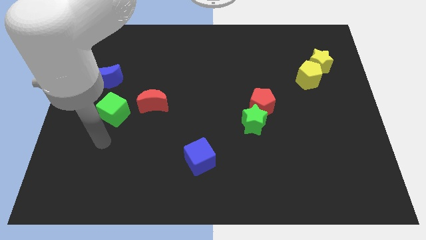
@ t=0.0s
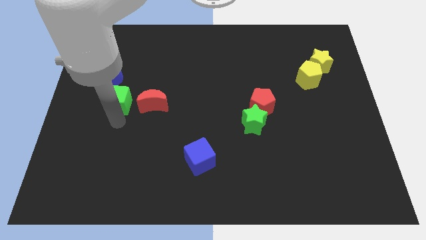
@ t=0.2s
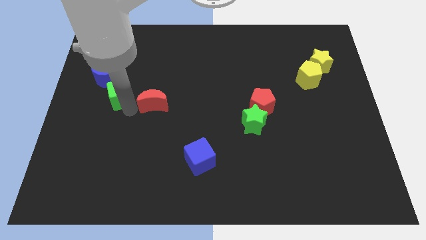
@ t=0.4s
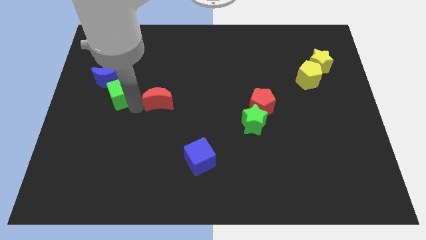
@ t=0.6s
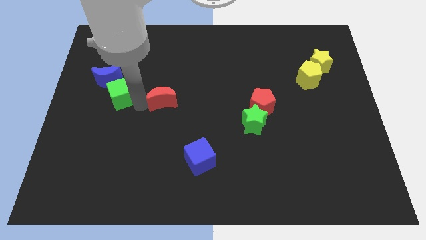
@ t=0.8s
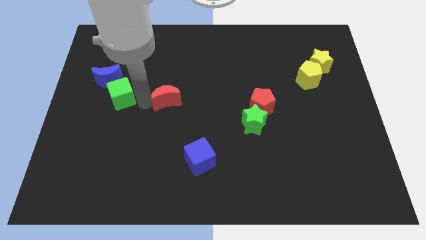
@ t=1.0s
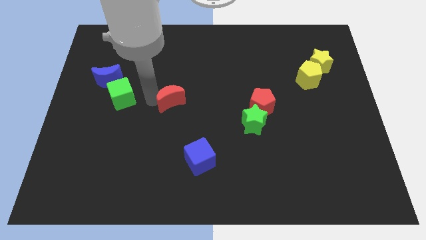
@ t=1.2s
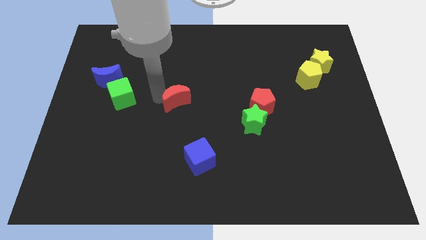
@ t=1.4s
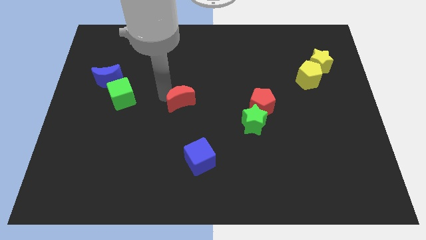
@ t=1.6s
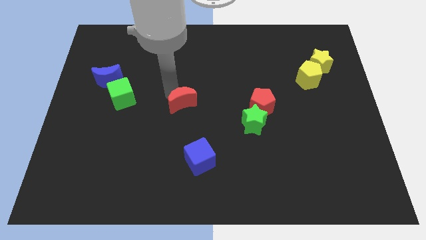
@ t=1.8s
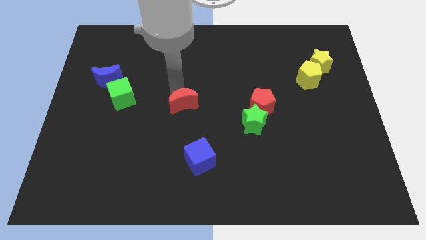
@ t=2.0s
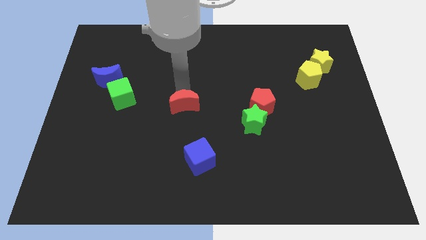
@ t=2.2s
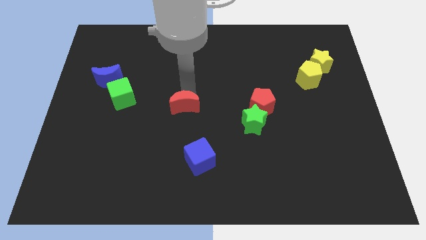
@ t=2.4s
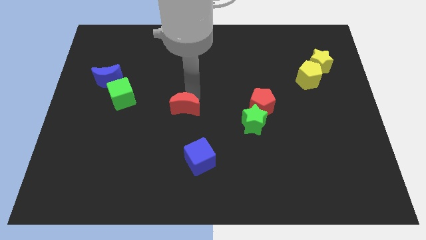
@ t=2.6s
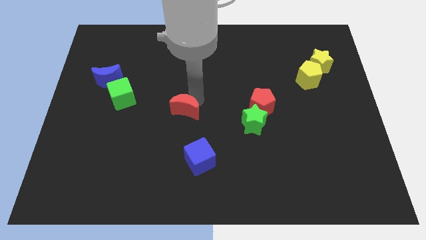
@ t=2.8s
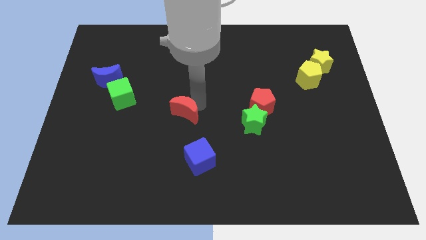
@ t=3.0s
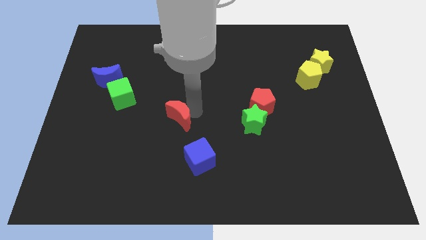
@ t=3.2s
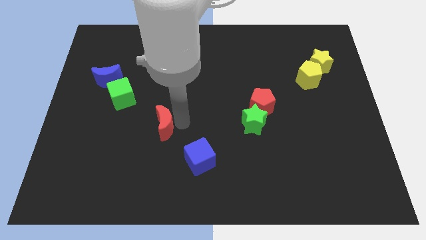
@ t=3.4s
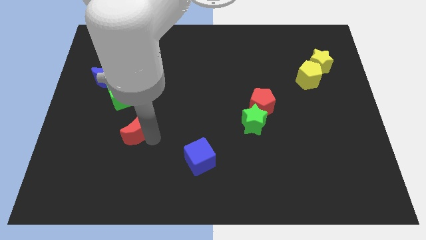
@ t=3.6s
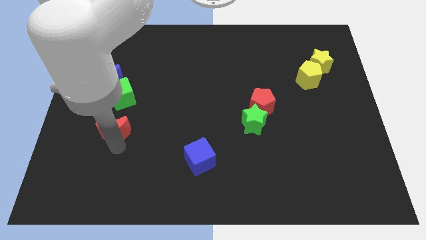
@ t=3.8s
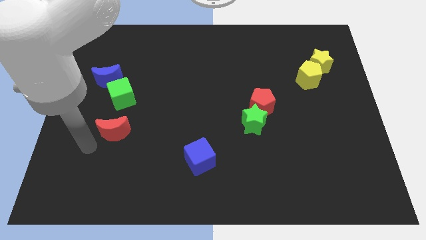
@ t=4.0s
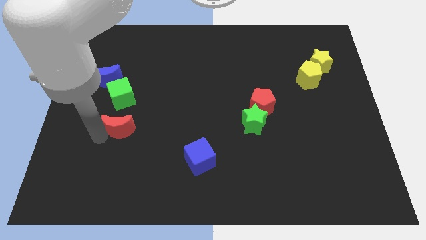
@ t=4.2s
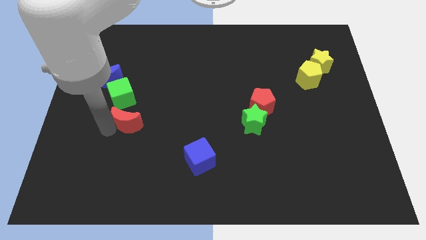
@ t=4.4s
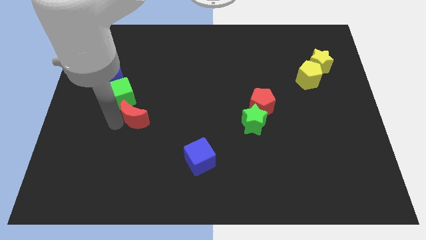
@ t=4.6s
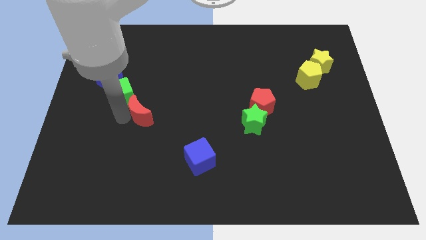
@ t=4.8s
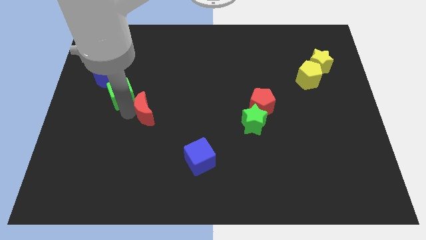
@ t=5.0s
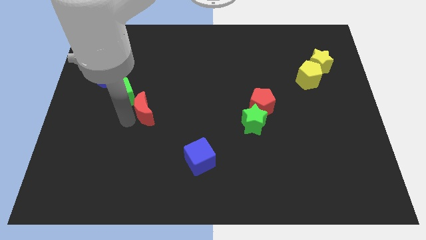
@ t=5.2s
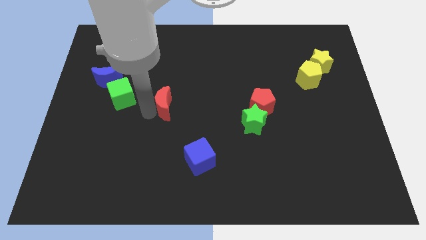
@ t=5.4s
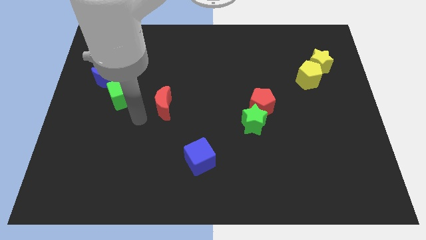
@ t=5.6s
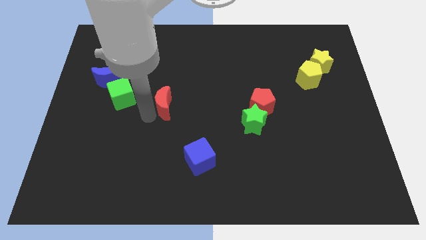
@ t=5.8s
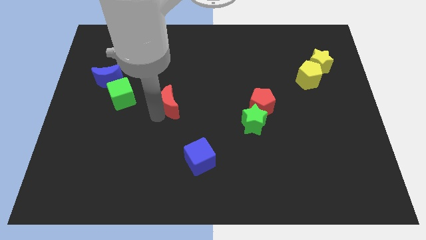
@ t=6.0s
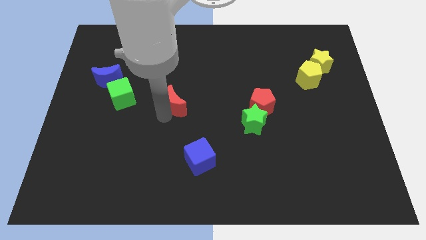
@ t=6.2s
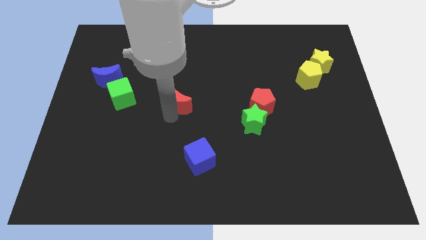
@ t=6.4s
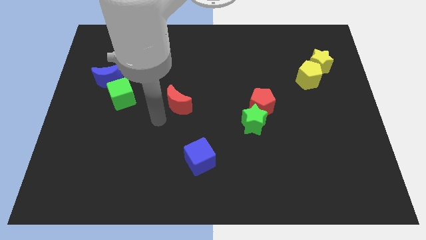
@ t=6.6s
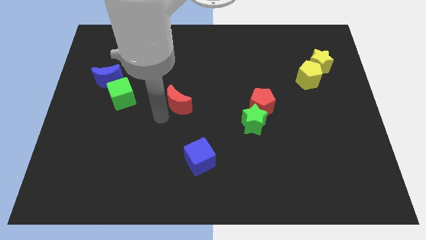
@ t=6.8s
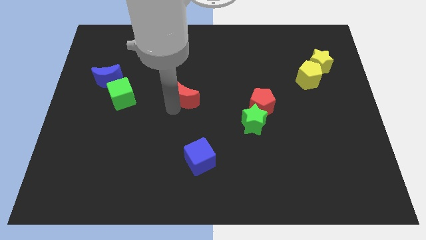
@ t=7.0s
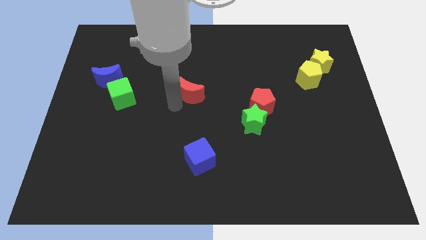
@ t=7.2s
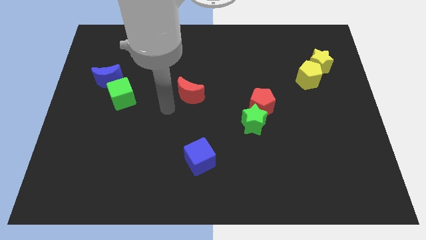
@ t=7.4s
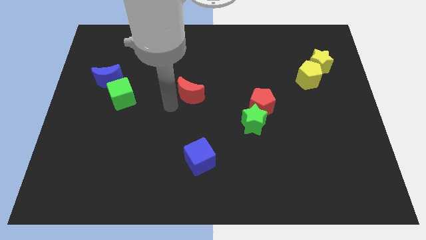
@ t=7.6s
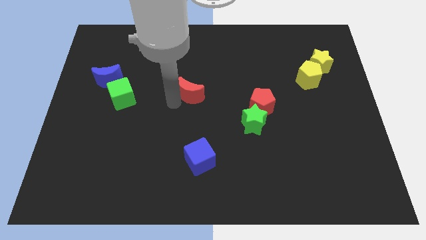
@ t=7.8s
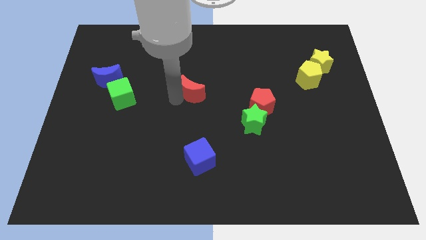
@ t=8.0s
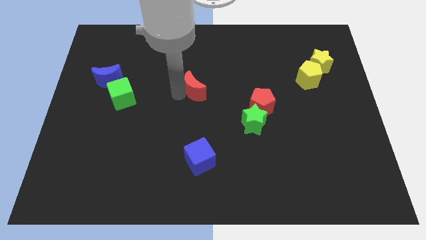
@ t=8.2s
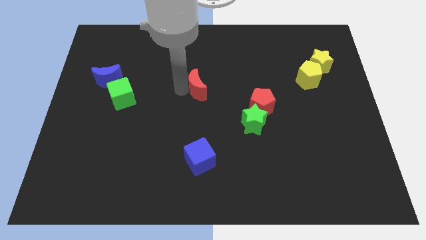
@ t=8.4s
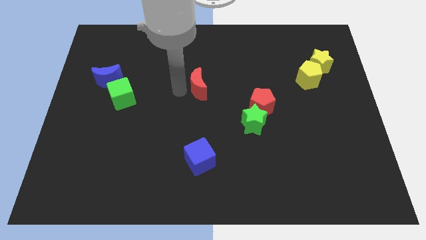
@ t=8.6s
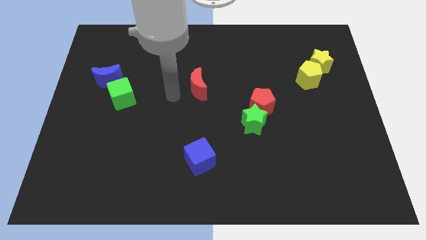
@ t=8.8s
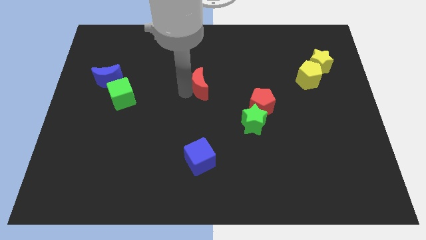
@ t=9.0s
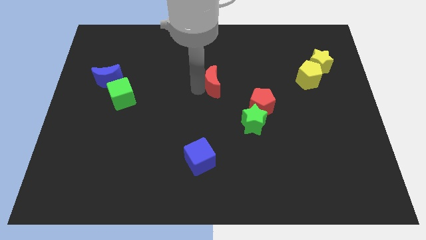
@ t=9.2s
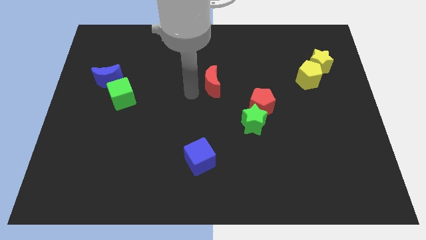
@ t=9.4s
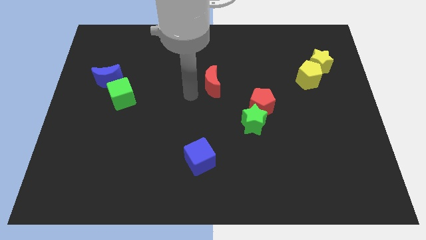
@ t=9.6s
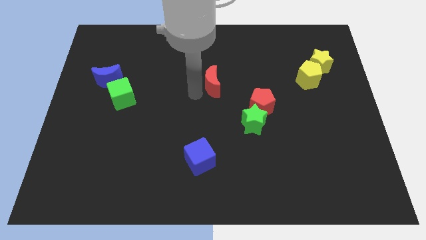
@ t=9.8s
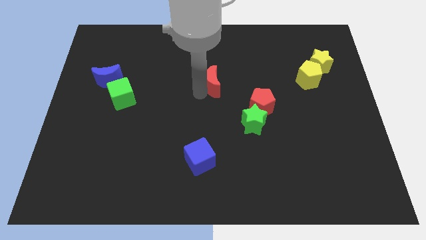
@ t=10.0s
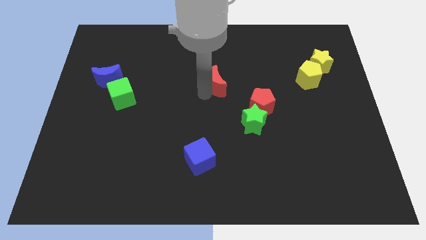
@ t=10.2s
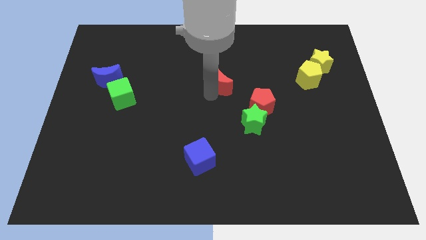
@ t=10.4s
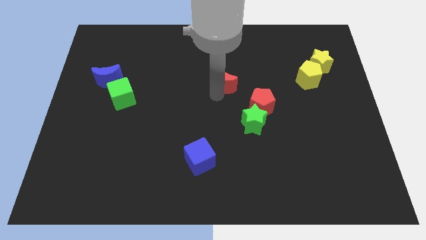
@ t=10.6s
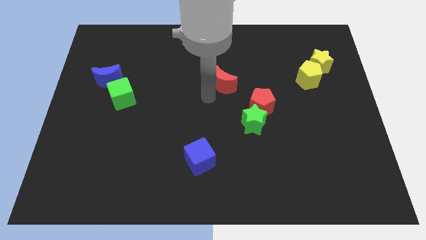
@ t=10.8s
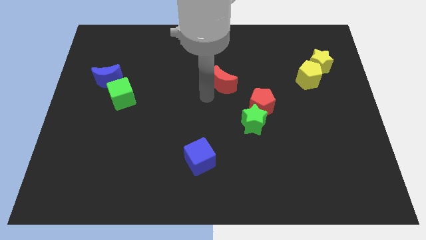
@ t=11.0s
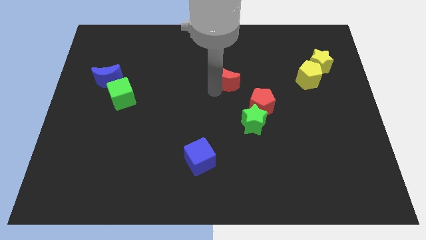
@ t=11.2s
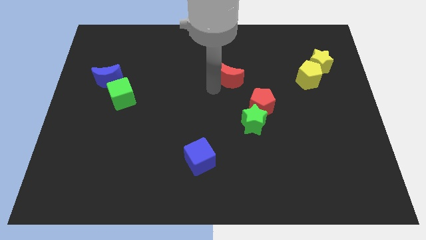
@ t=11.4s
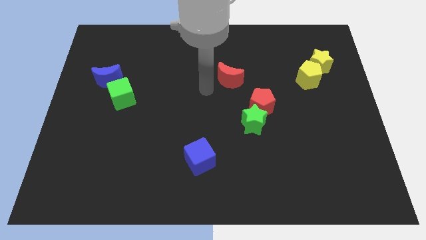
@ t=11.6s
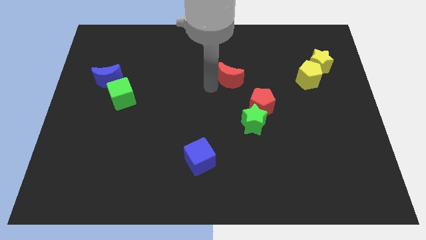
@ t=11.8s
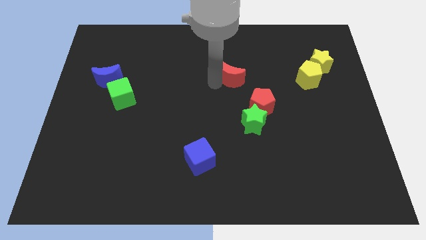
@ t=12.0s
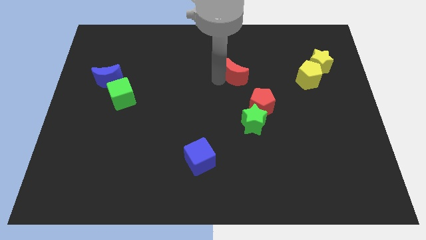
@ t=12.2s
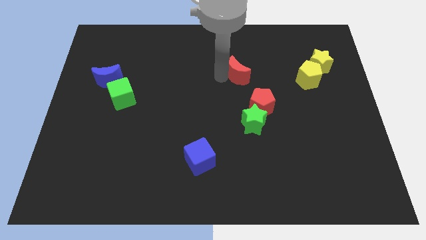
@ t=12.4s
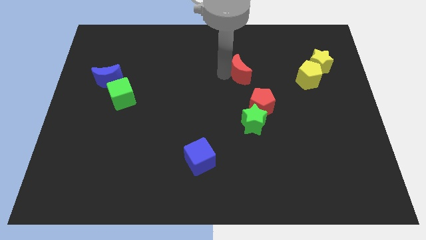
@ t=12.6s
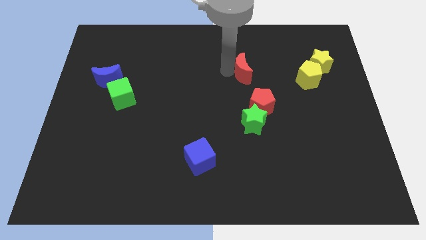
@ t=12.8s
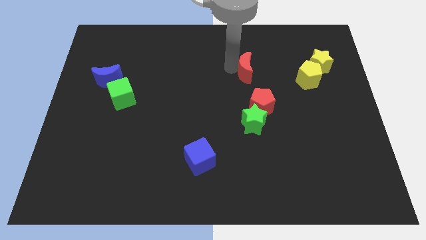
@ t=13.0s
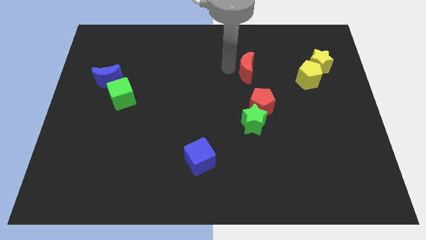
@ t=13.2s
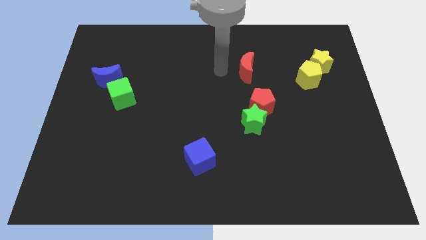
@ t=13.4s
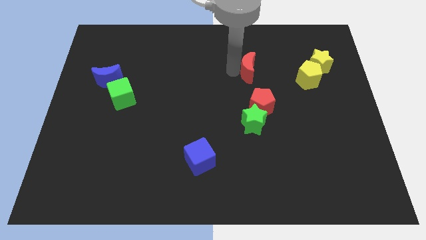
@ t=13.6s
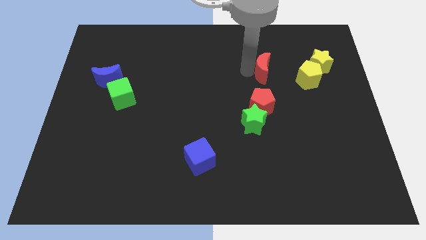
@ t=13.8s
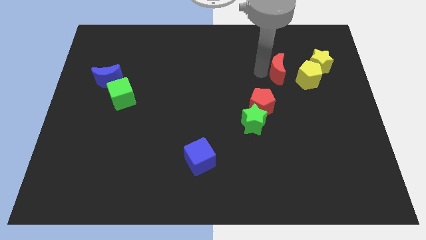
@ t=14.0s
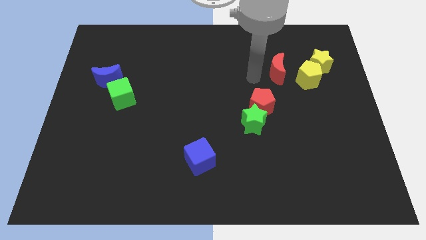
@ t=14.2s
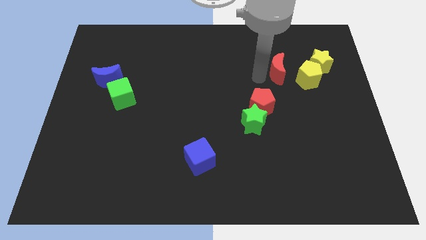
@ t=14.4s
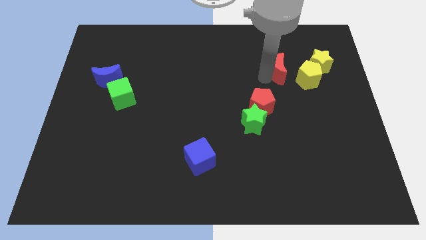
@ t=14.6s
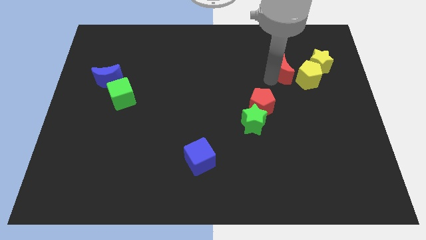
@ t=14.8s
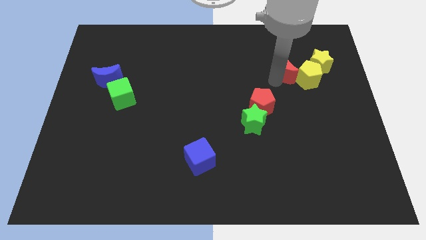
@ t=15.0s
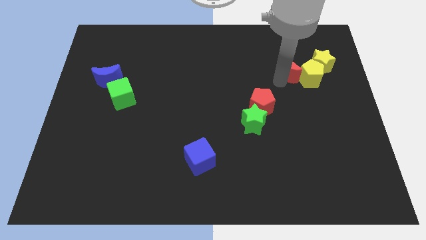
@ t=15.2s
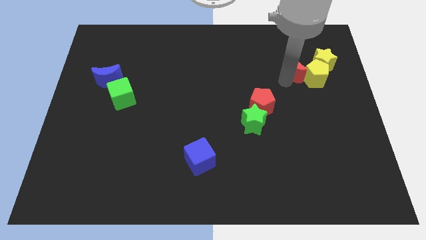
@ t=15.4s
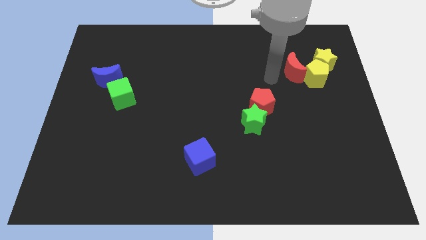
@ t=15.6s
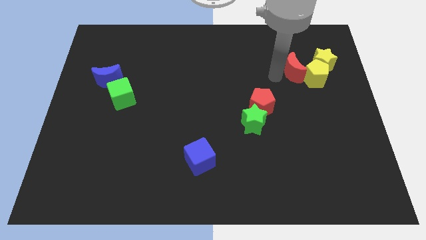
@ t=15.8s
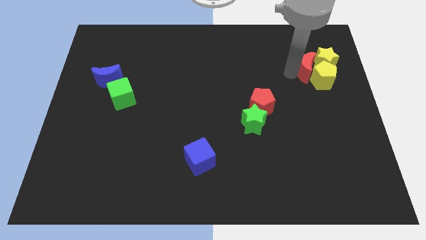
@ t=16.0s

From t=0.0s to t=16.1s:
slide the red moon towards the yellow star
